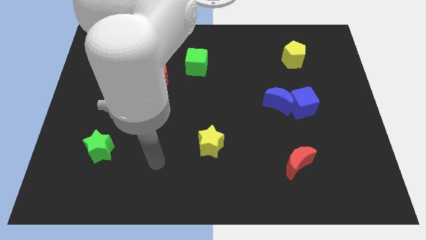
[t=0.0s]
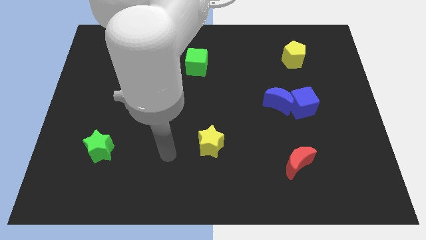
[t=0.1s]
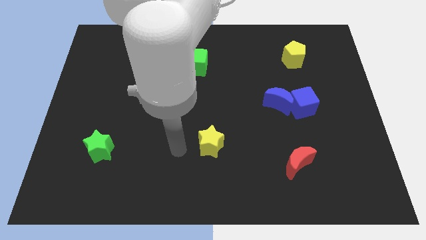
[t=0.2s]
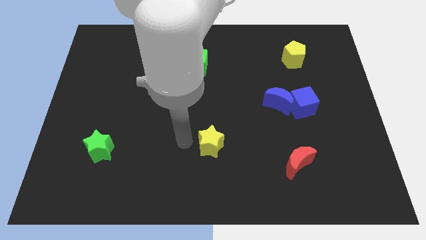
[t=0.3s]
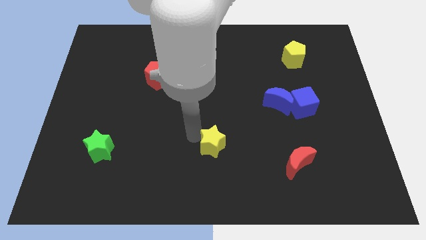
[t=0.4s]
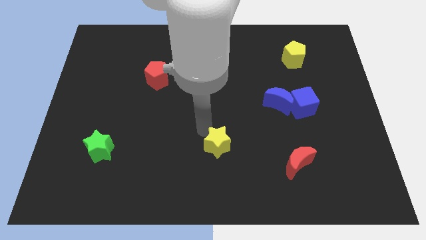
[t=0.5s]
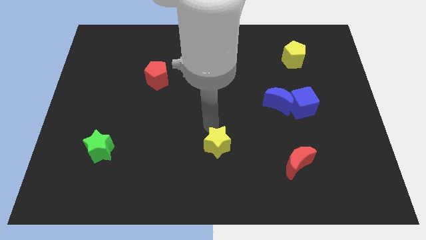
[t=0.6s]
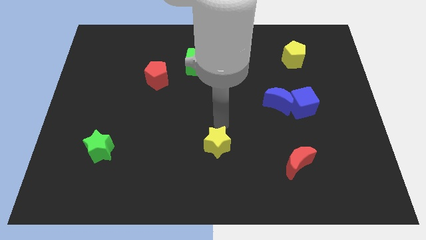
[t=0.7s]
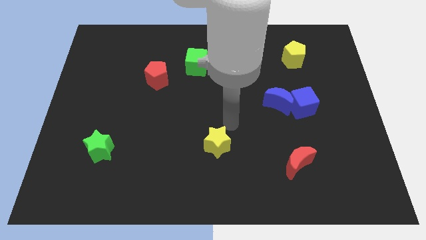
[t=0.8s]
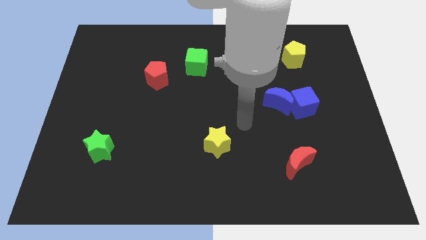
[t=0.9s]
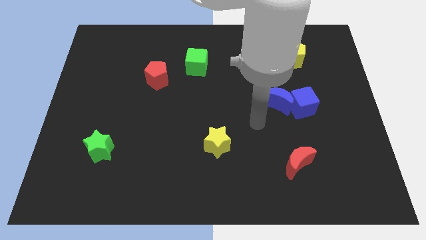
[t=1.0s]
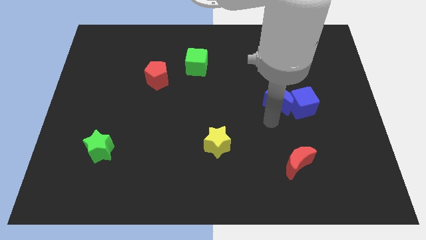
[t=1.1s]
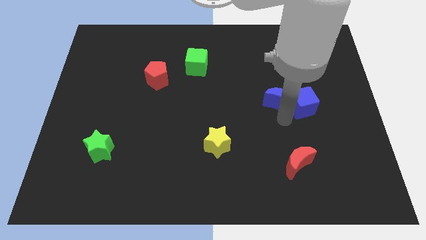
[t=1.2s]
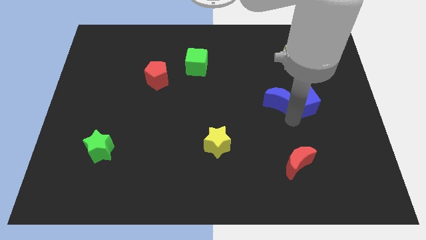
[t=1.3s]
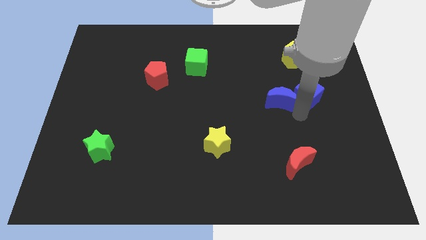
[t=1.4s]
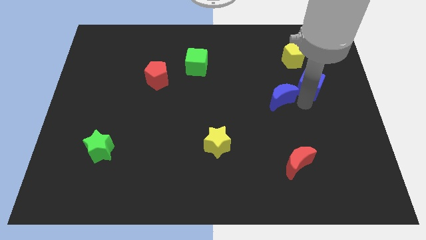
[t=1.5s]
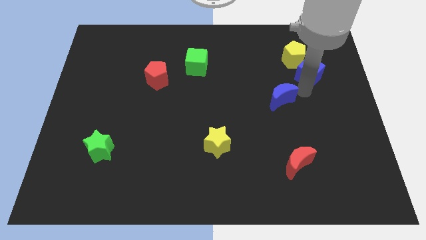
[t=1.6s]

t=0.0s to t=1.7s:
pull the blue moon apart from the blue cube

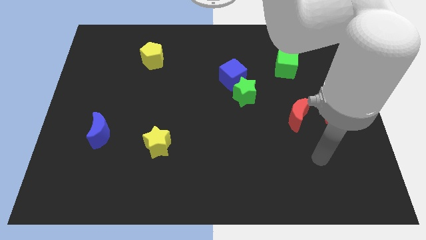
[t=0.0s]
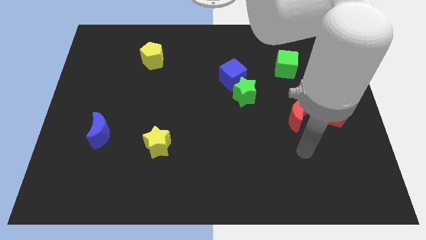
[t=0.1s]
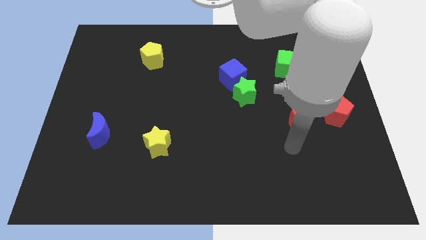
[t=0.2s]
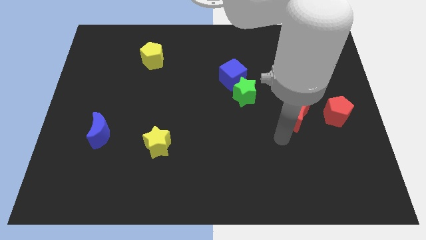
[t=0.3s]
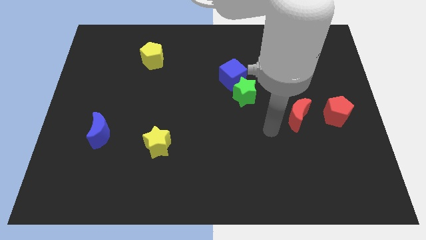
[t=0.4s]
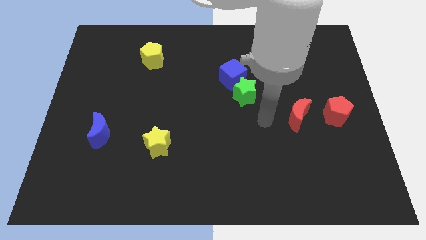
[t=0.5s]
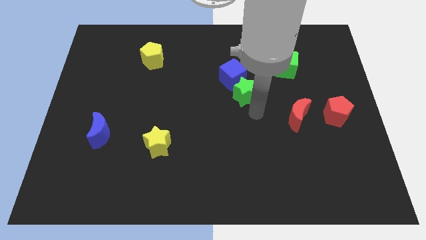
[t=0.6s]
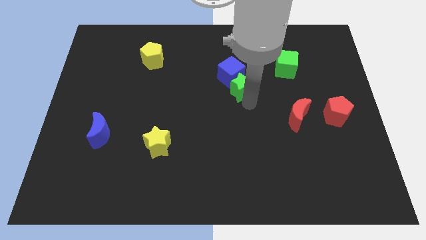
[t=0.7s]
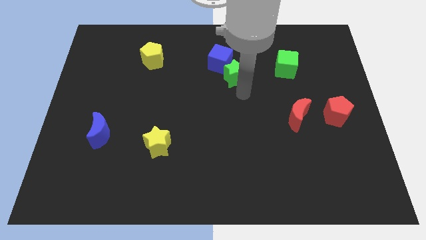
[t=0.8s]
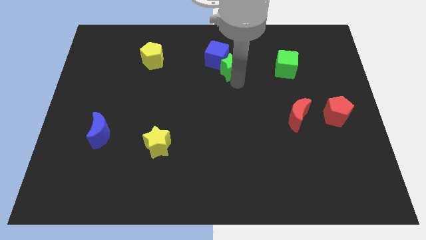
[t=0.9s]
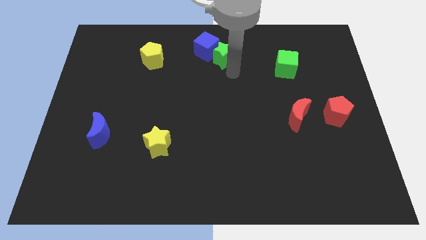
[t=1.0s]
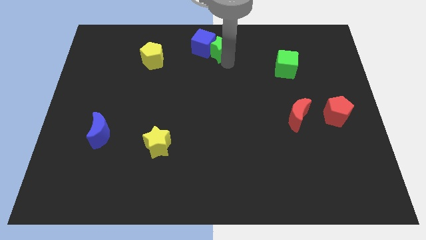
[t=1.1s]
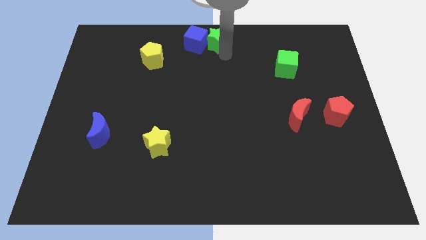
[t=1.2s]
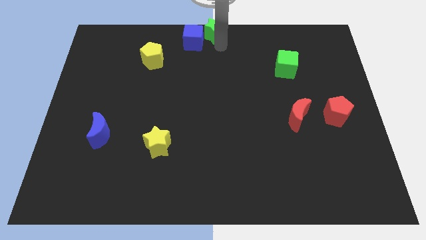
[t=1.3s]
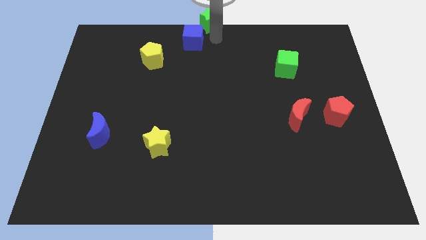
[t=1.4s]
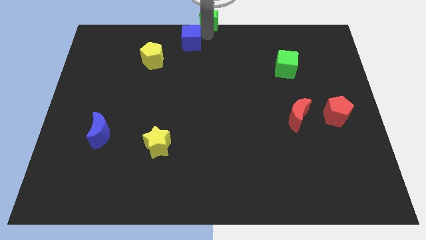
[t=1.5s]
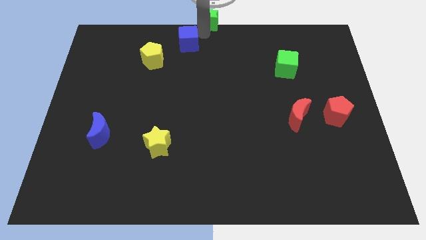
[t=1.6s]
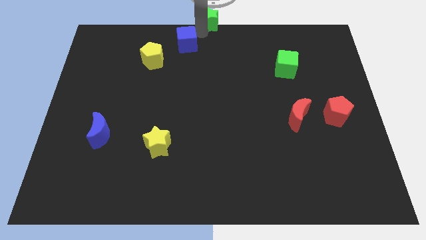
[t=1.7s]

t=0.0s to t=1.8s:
separate the blue cube from the green star

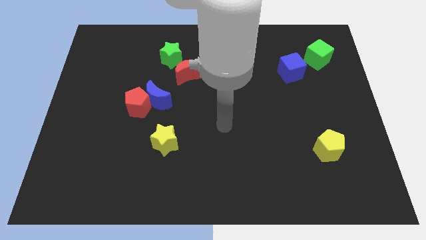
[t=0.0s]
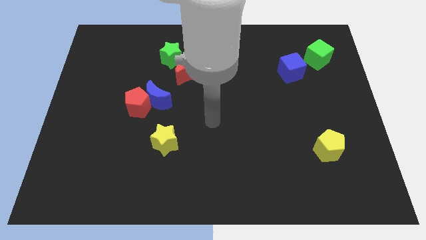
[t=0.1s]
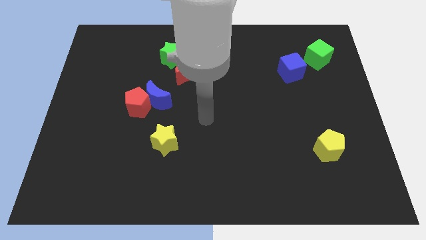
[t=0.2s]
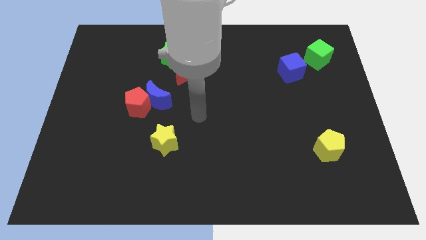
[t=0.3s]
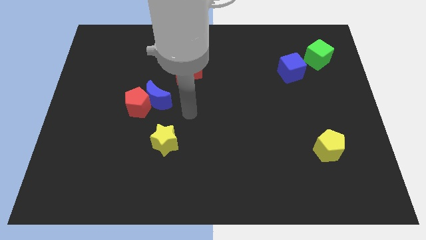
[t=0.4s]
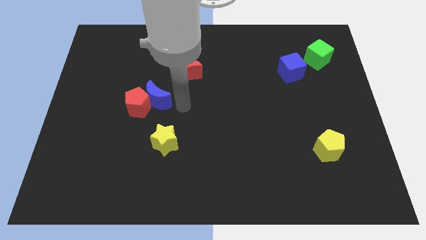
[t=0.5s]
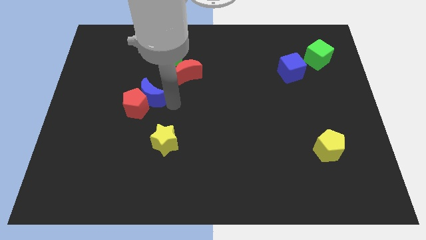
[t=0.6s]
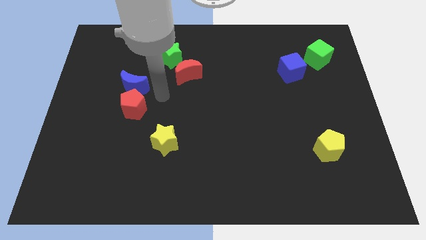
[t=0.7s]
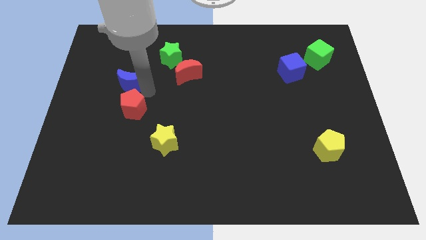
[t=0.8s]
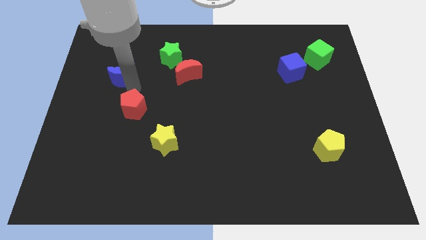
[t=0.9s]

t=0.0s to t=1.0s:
move the red pentagon away from the blue moon

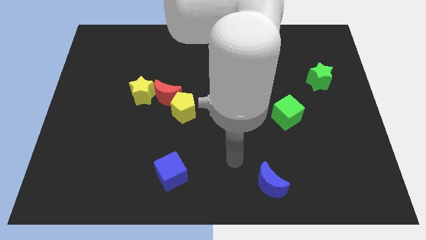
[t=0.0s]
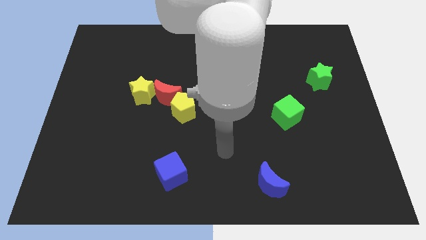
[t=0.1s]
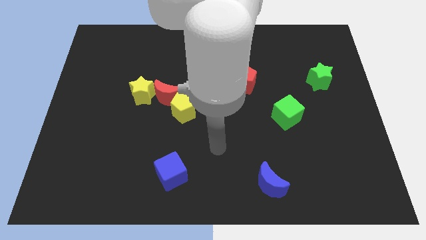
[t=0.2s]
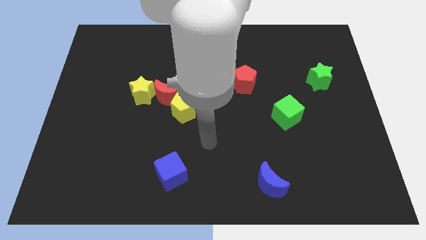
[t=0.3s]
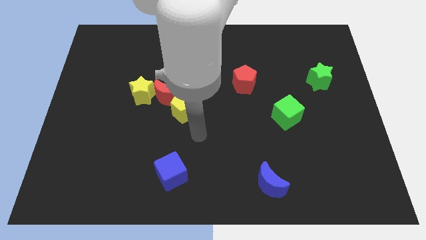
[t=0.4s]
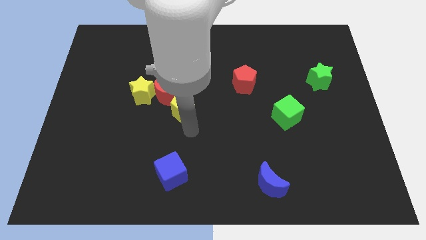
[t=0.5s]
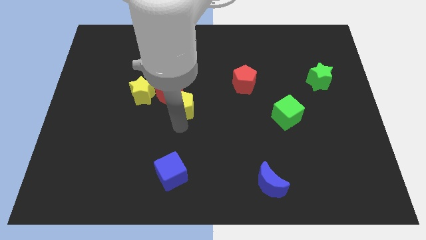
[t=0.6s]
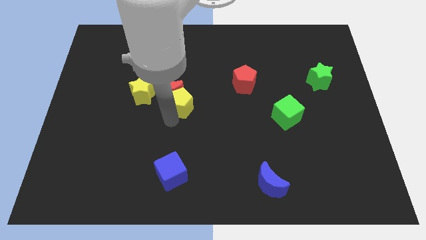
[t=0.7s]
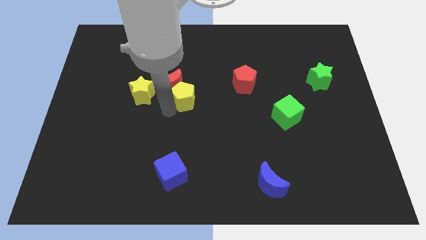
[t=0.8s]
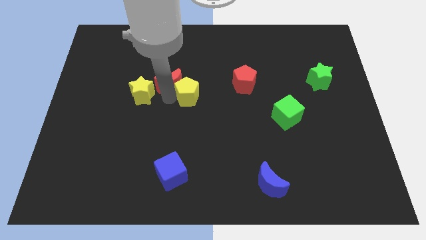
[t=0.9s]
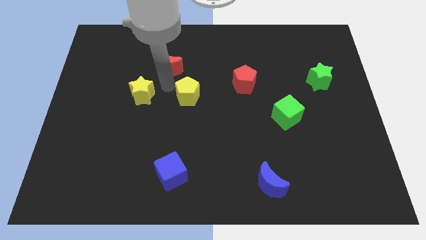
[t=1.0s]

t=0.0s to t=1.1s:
pull the yellow pentagon apart from the red moon

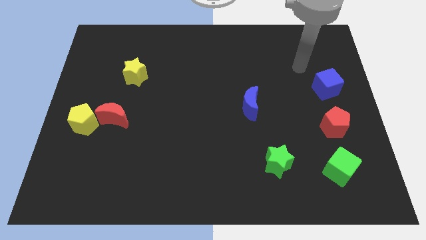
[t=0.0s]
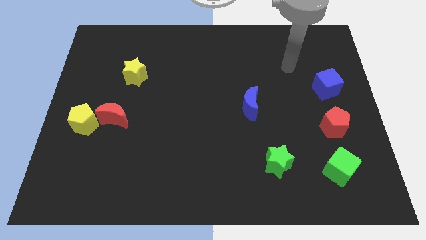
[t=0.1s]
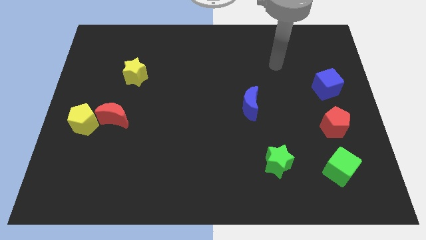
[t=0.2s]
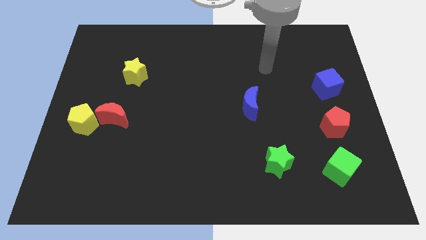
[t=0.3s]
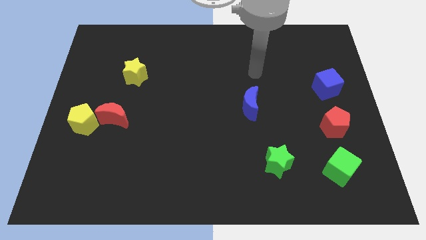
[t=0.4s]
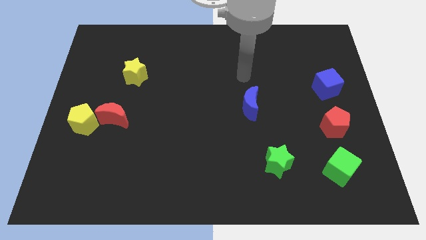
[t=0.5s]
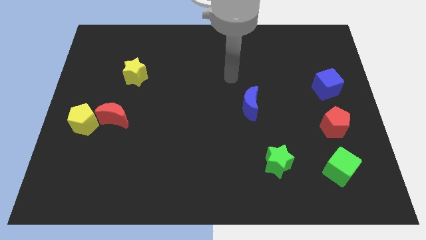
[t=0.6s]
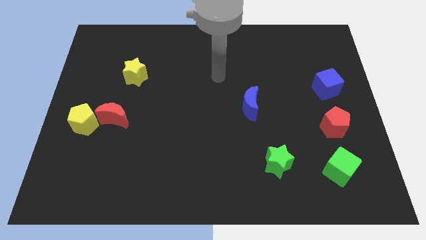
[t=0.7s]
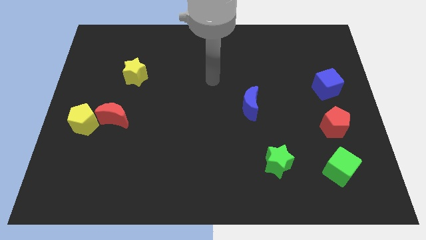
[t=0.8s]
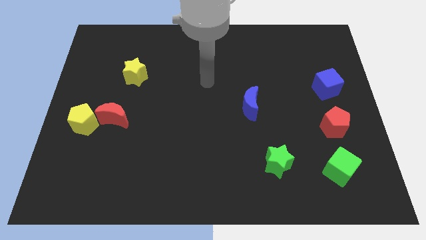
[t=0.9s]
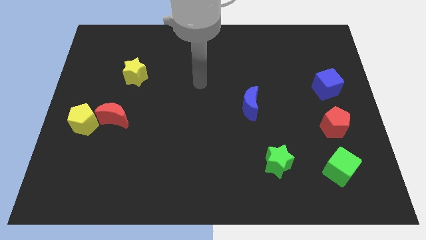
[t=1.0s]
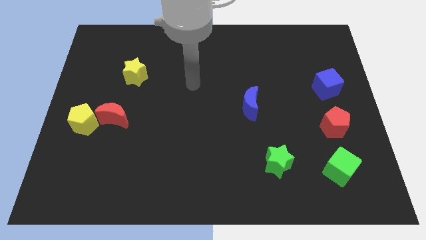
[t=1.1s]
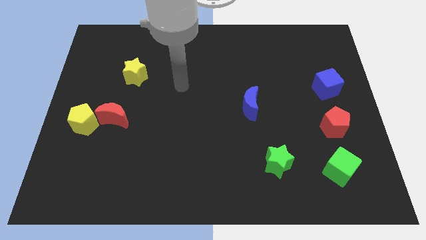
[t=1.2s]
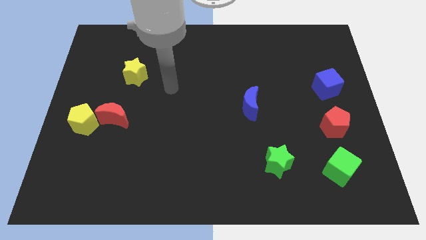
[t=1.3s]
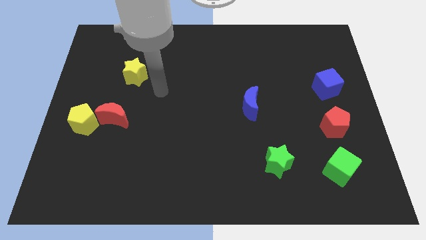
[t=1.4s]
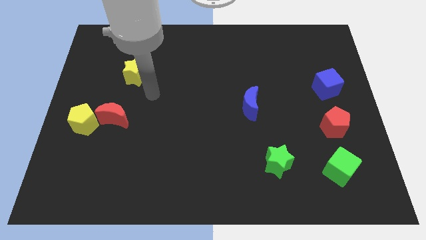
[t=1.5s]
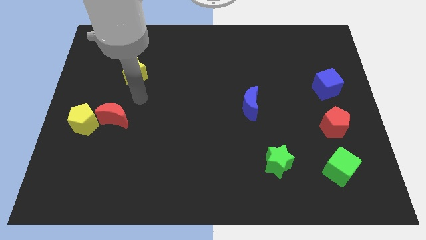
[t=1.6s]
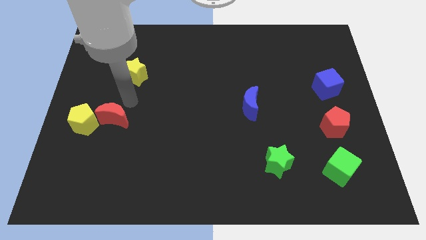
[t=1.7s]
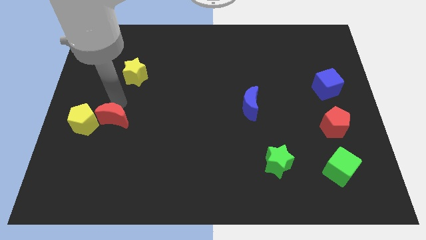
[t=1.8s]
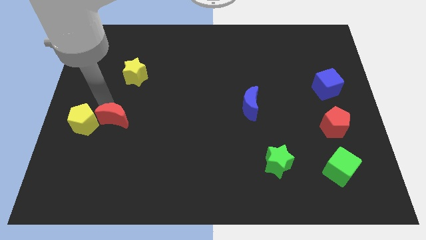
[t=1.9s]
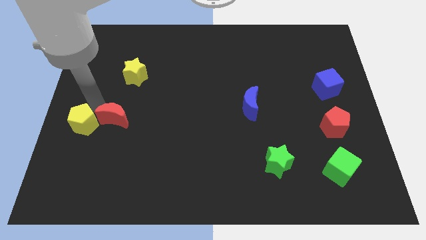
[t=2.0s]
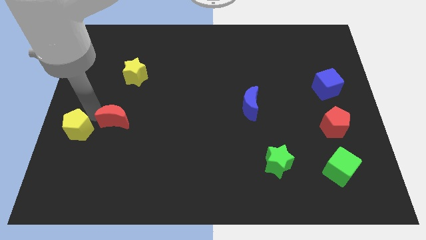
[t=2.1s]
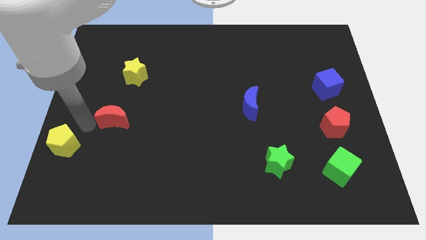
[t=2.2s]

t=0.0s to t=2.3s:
separate the red moon from the yellow pentagon

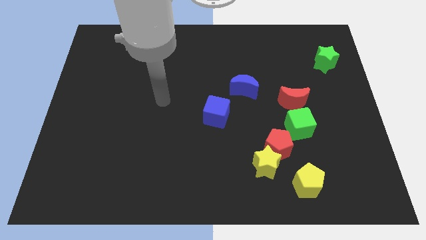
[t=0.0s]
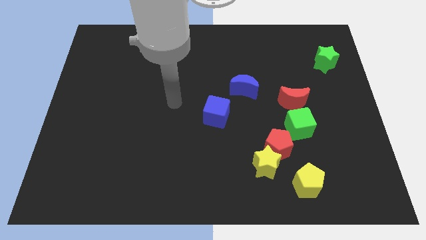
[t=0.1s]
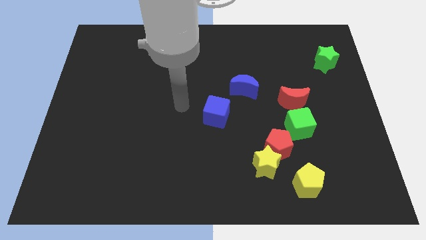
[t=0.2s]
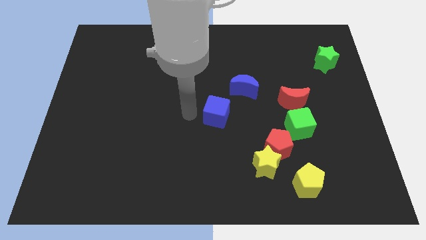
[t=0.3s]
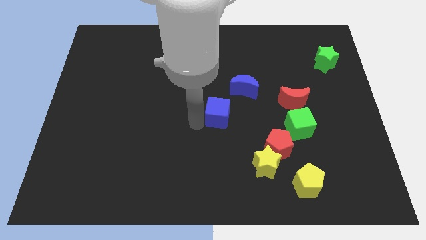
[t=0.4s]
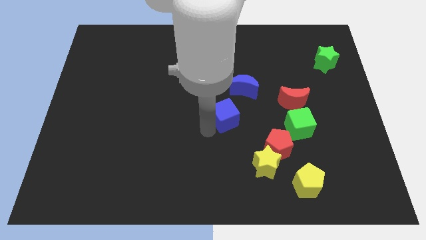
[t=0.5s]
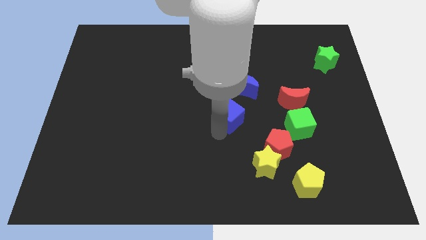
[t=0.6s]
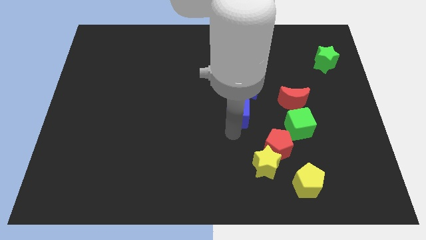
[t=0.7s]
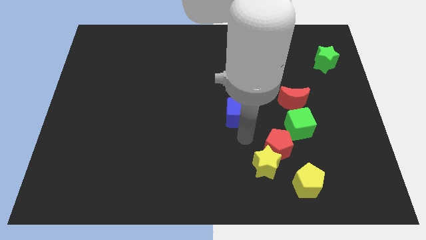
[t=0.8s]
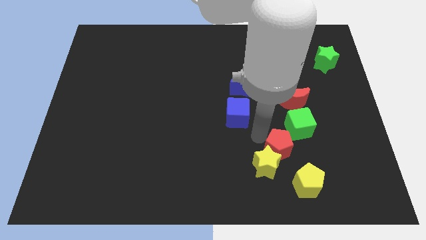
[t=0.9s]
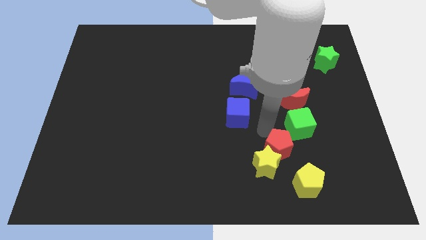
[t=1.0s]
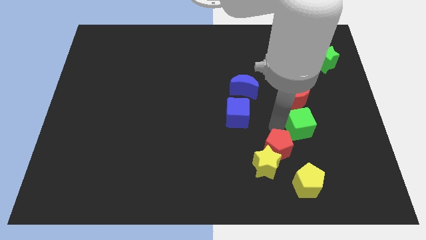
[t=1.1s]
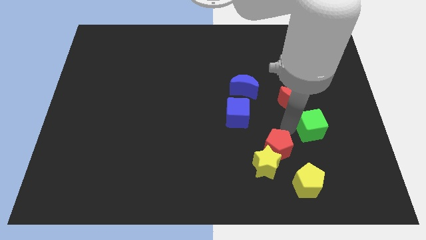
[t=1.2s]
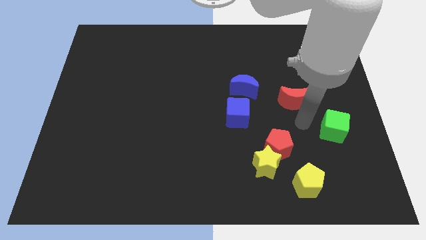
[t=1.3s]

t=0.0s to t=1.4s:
move the red moon away from the green cube

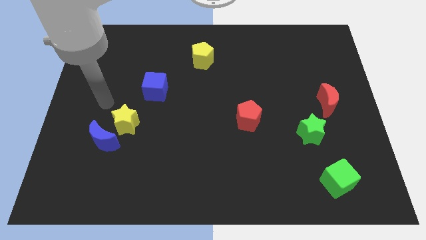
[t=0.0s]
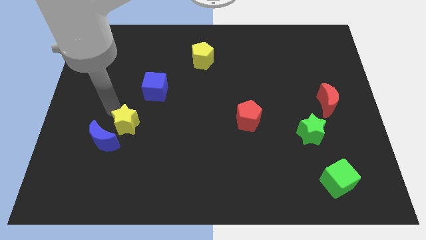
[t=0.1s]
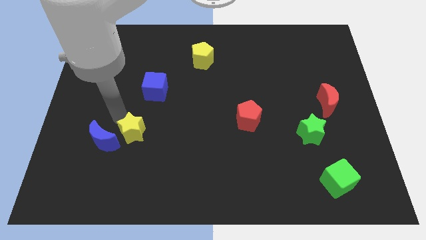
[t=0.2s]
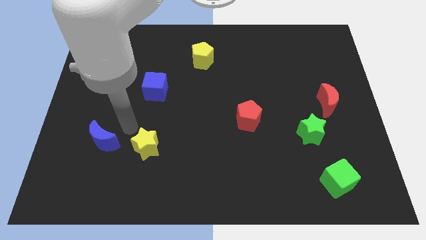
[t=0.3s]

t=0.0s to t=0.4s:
move the blue moon away from the yellow star
